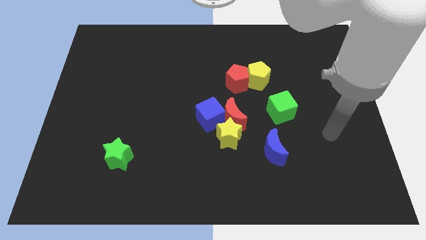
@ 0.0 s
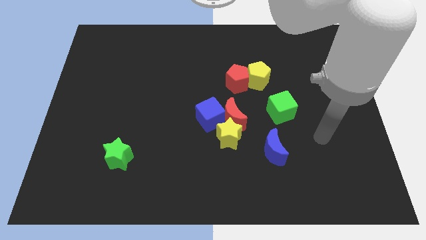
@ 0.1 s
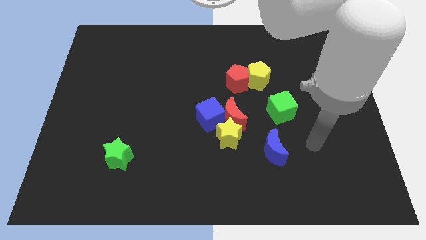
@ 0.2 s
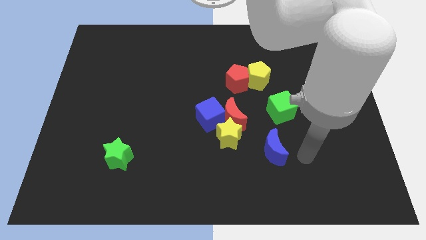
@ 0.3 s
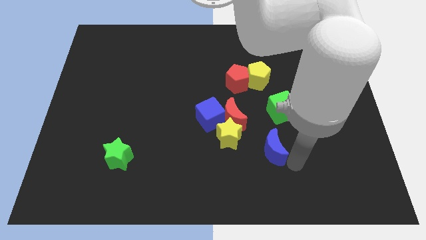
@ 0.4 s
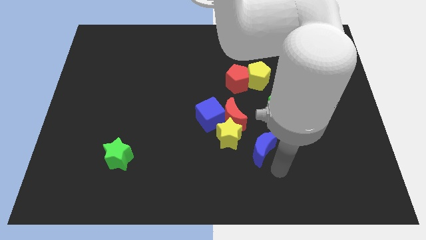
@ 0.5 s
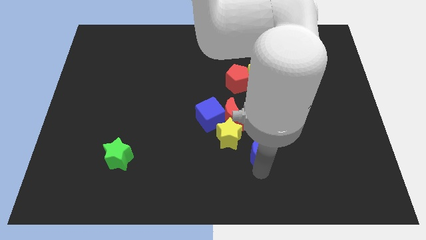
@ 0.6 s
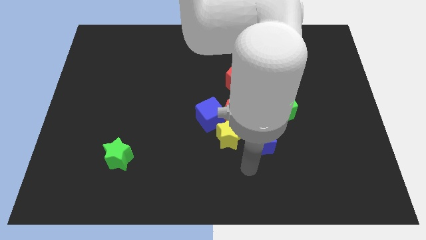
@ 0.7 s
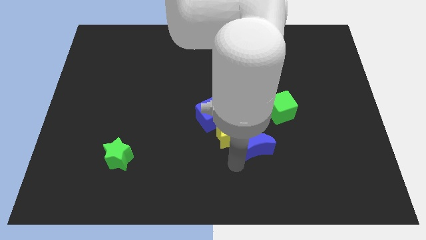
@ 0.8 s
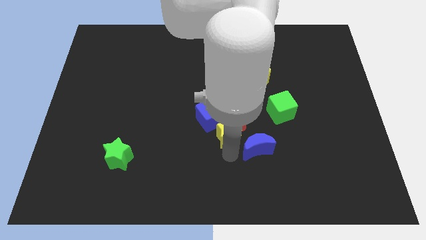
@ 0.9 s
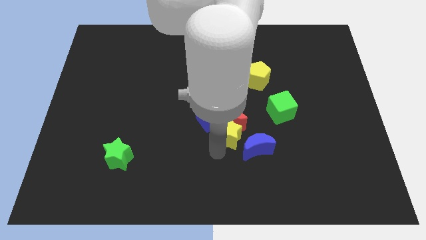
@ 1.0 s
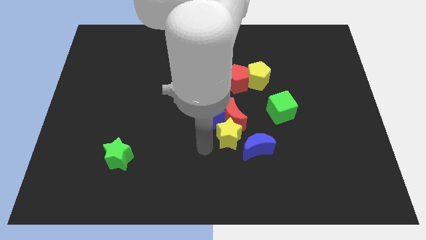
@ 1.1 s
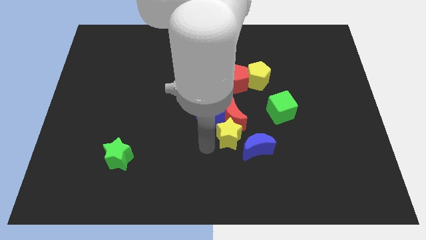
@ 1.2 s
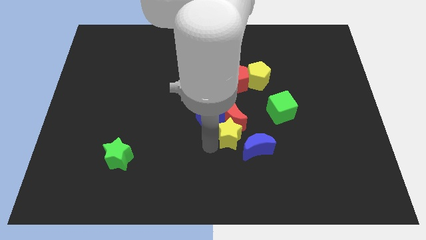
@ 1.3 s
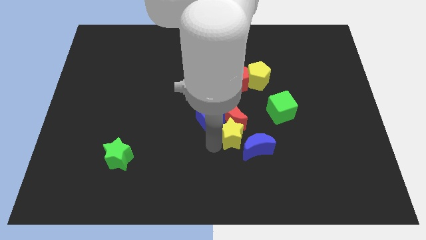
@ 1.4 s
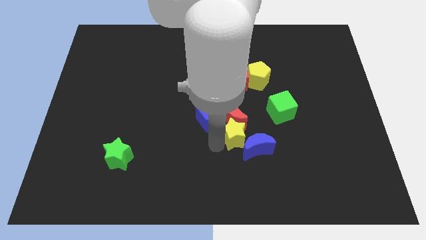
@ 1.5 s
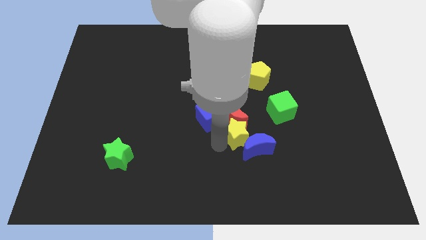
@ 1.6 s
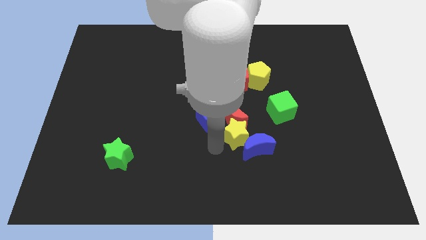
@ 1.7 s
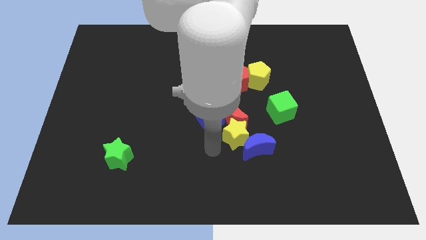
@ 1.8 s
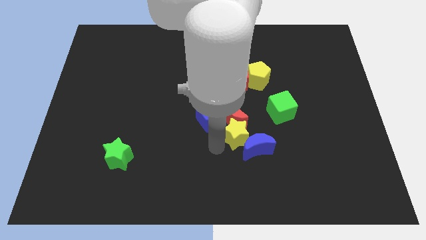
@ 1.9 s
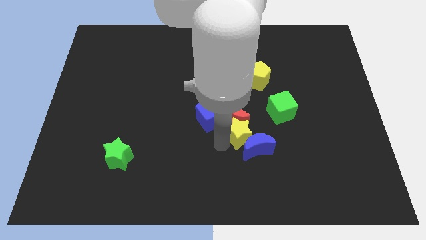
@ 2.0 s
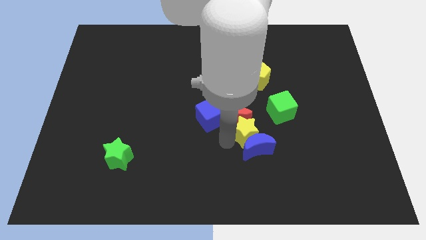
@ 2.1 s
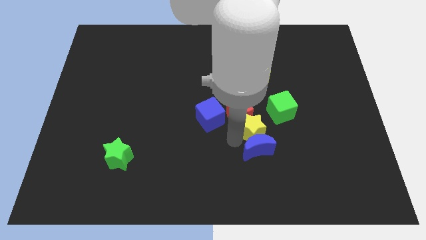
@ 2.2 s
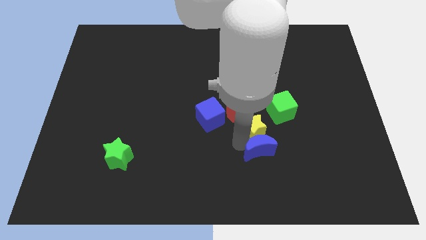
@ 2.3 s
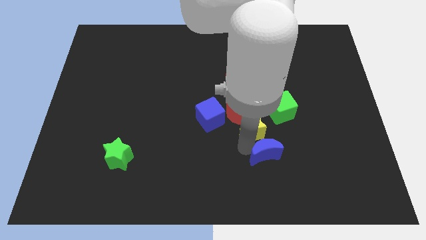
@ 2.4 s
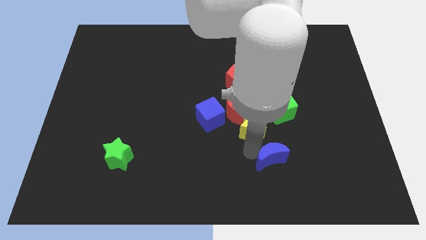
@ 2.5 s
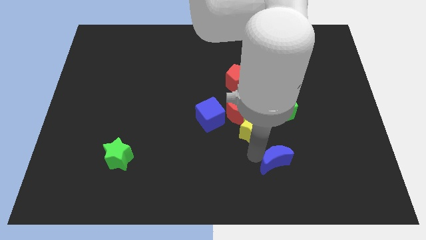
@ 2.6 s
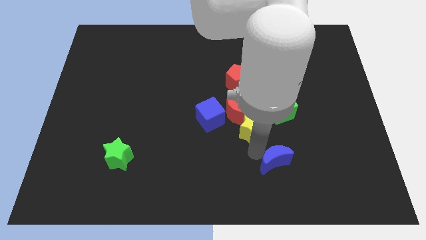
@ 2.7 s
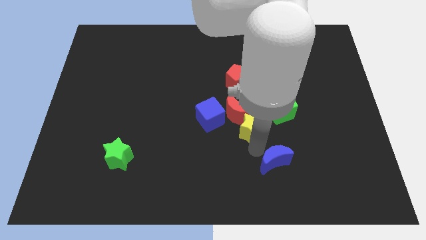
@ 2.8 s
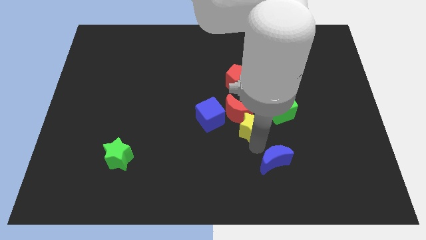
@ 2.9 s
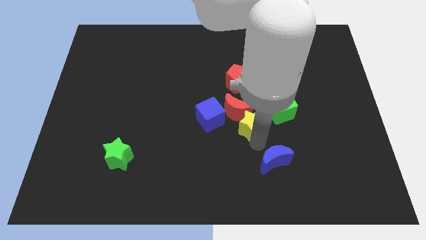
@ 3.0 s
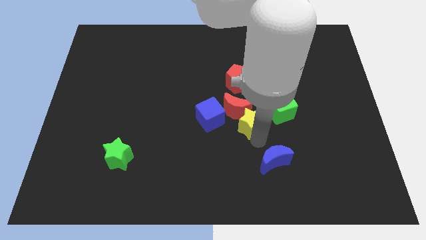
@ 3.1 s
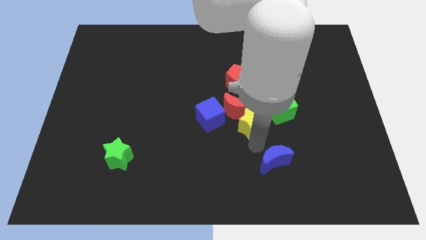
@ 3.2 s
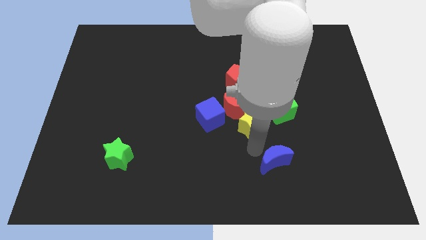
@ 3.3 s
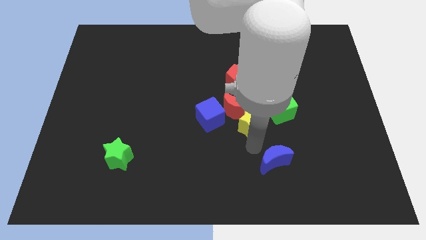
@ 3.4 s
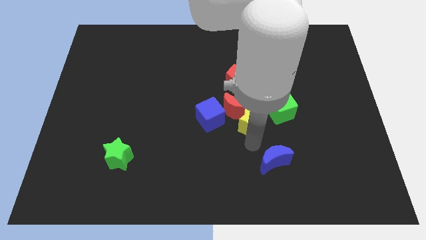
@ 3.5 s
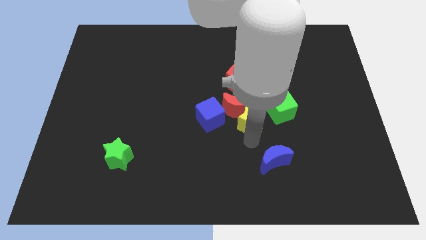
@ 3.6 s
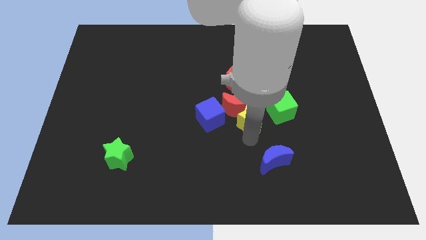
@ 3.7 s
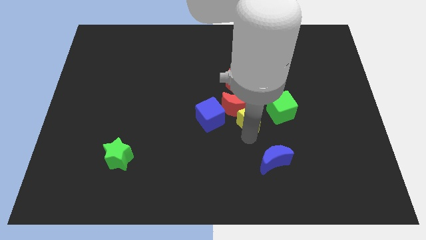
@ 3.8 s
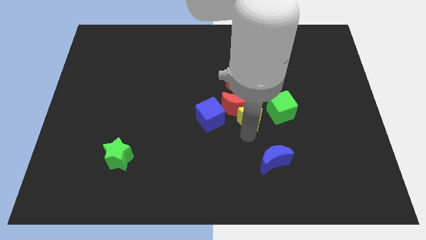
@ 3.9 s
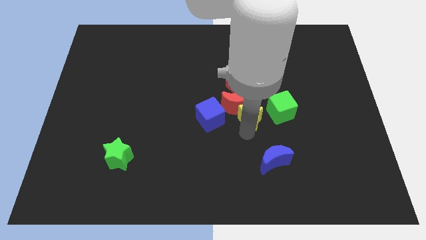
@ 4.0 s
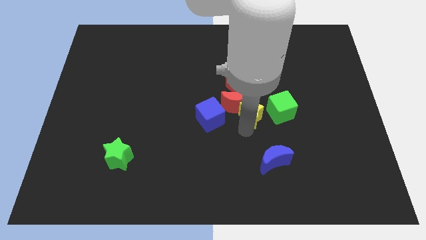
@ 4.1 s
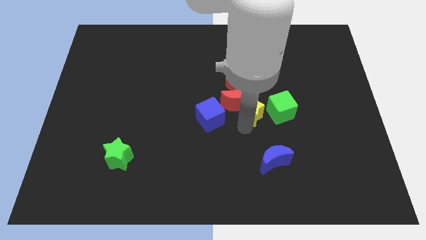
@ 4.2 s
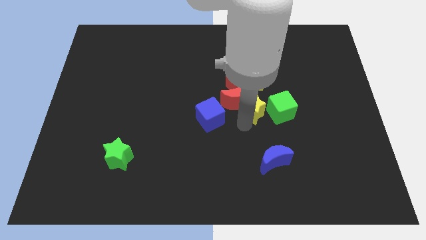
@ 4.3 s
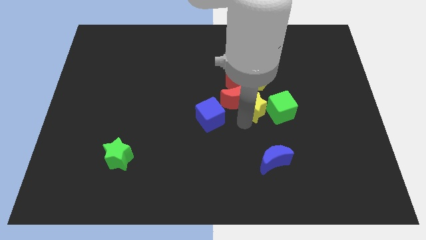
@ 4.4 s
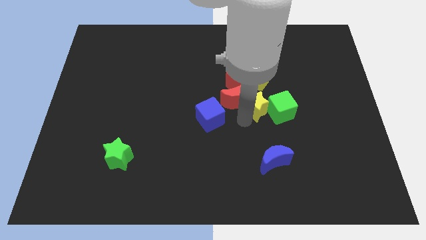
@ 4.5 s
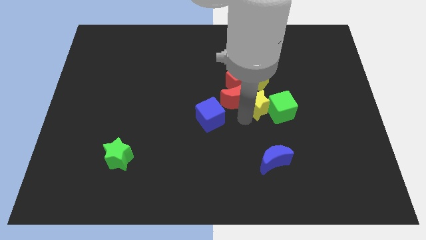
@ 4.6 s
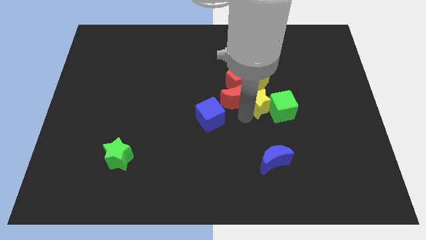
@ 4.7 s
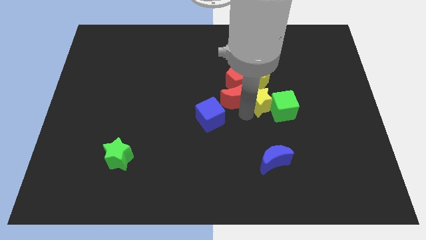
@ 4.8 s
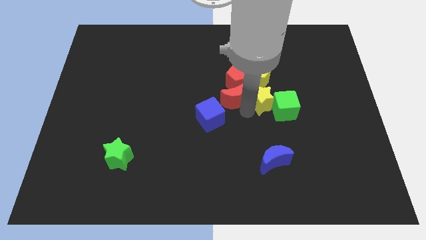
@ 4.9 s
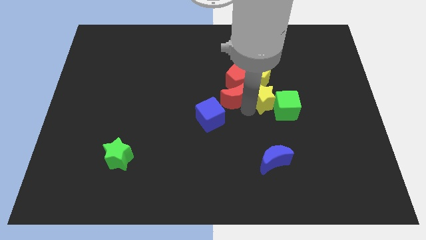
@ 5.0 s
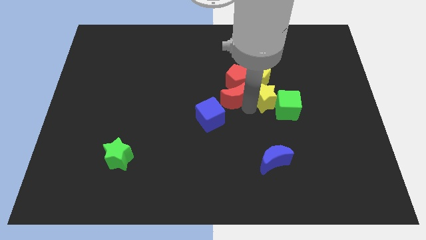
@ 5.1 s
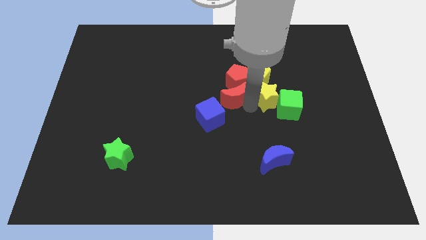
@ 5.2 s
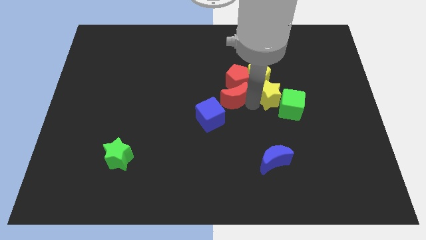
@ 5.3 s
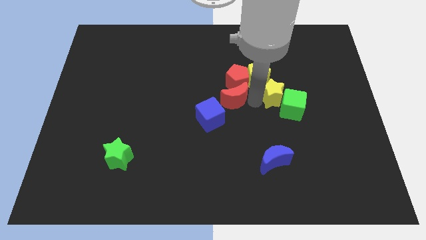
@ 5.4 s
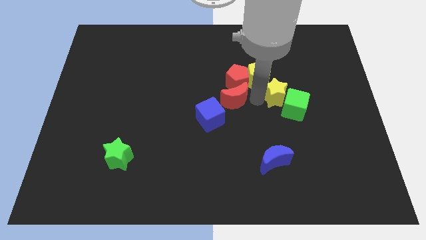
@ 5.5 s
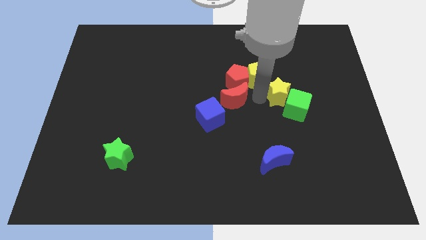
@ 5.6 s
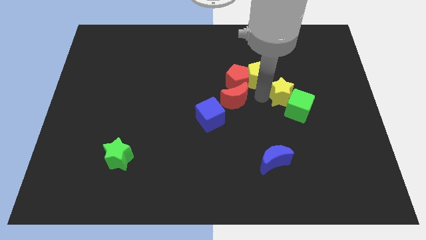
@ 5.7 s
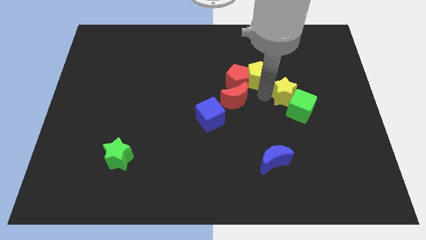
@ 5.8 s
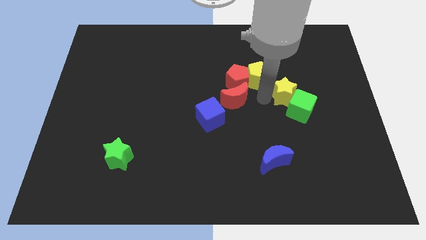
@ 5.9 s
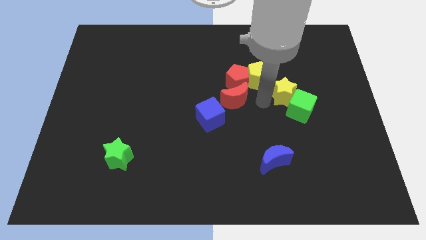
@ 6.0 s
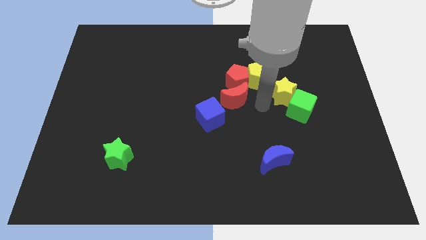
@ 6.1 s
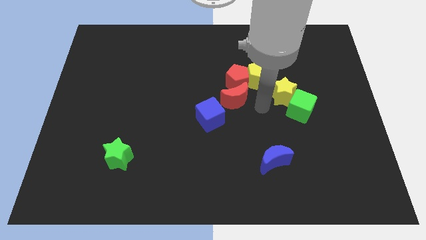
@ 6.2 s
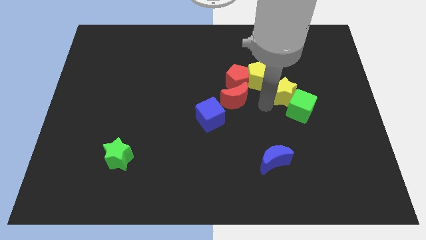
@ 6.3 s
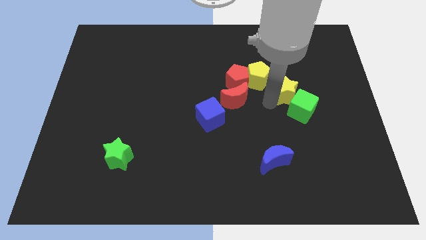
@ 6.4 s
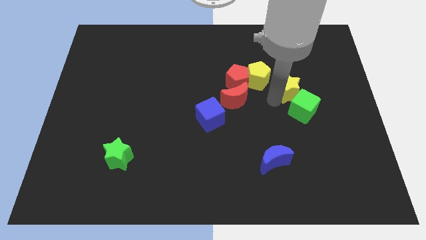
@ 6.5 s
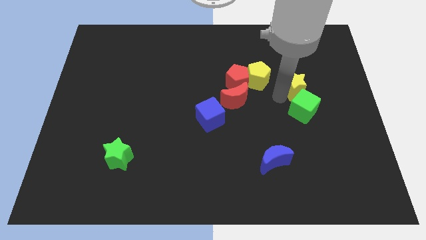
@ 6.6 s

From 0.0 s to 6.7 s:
slide the yellow star upwards and then right

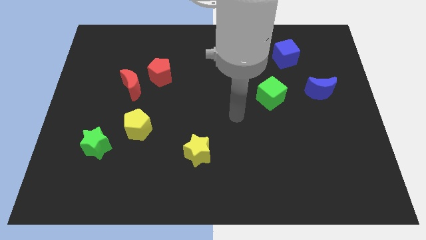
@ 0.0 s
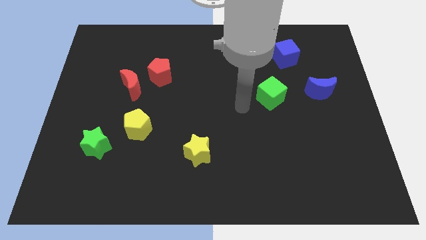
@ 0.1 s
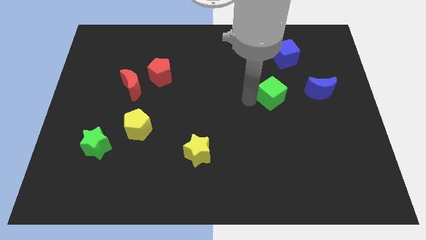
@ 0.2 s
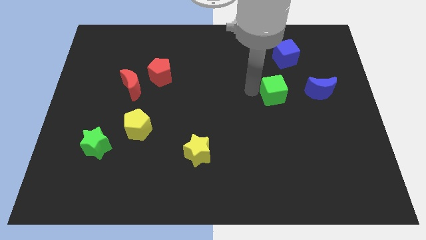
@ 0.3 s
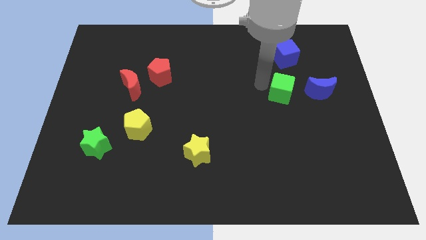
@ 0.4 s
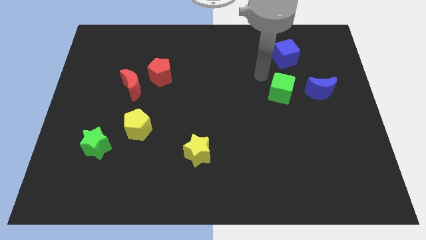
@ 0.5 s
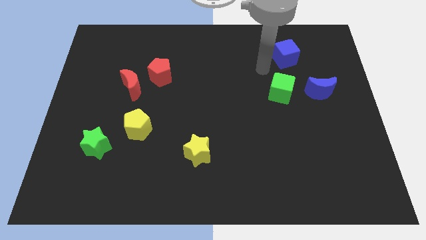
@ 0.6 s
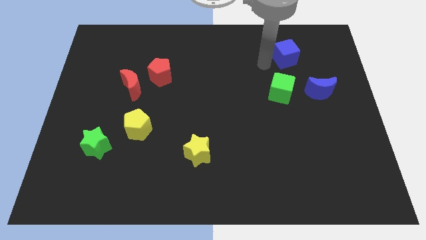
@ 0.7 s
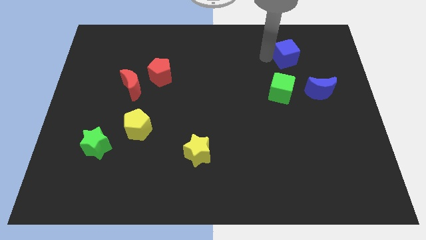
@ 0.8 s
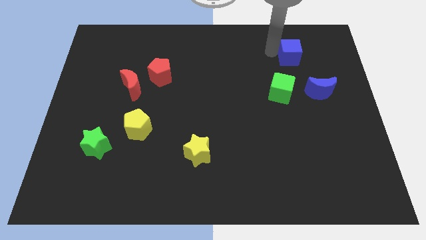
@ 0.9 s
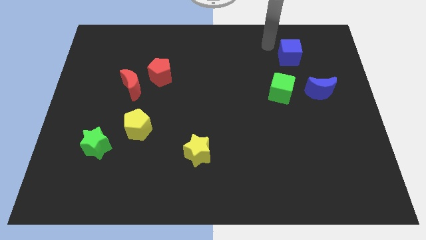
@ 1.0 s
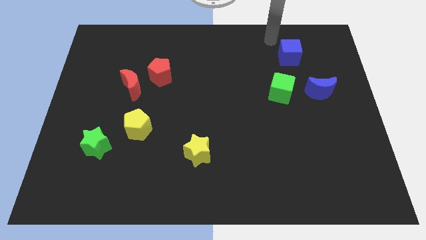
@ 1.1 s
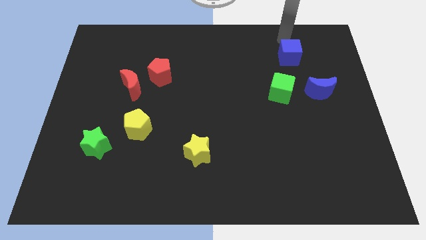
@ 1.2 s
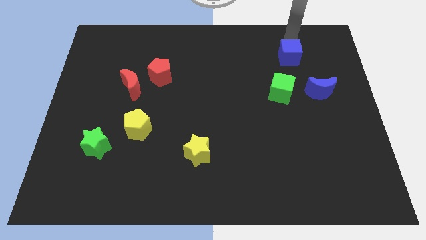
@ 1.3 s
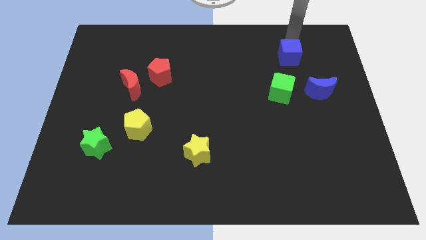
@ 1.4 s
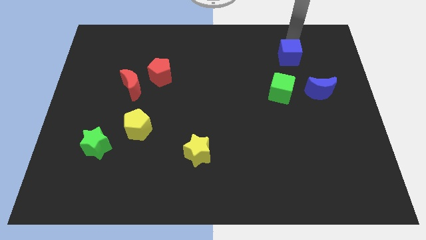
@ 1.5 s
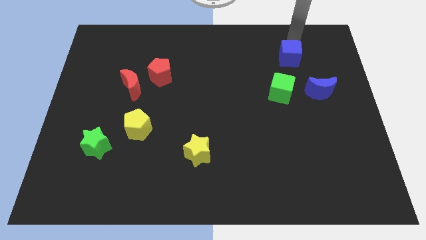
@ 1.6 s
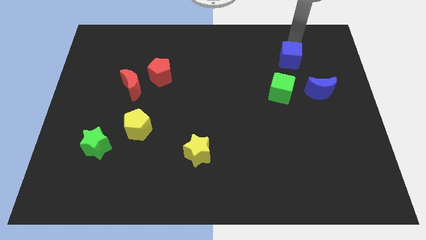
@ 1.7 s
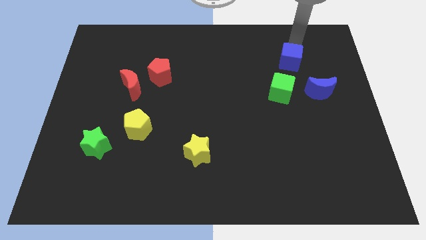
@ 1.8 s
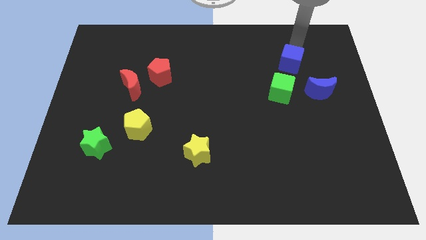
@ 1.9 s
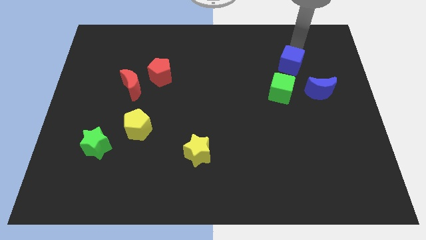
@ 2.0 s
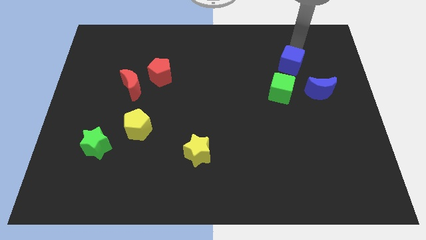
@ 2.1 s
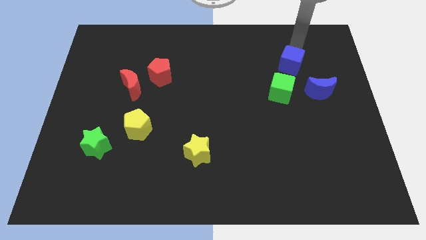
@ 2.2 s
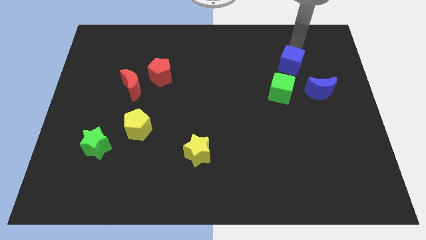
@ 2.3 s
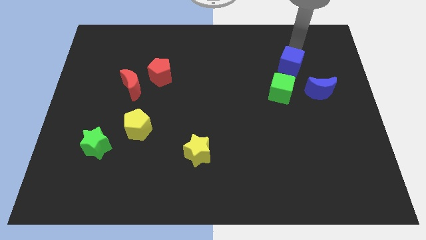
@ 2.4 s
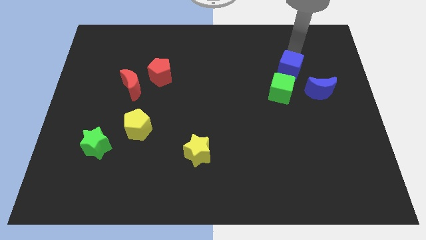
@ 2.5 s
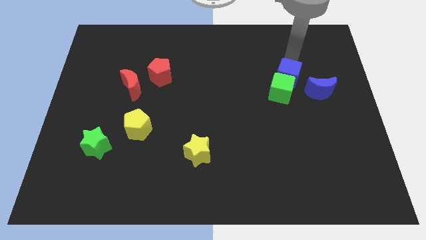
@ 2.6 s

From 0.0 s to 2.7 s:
slightly move the blue cube down
